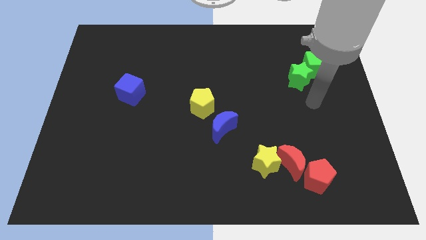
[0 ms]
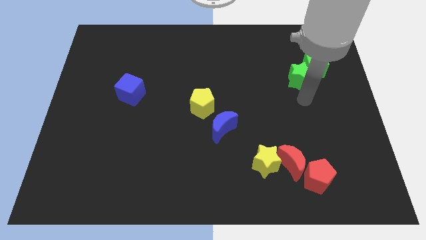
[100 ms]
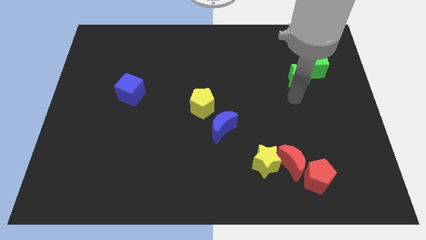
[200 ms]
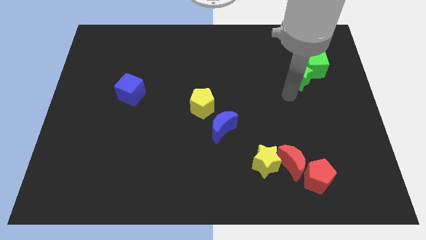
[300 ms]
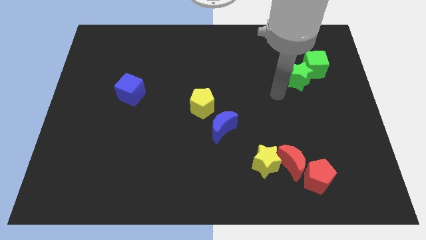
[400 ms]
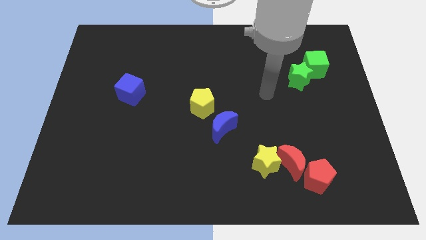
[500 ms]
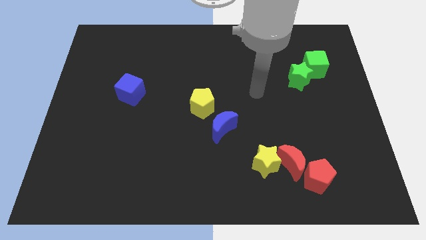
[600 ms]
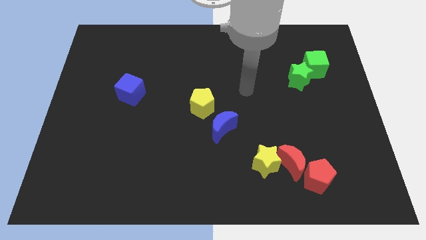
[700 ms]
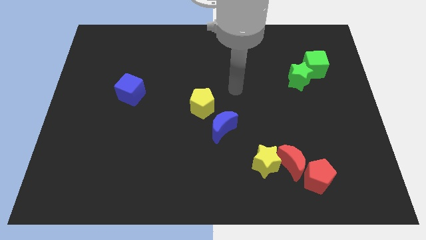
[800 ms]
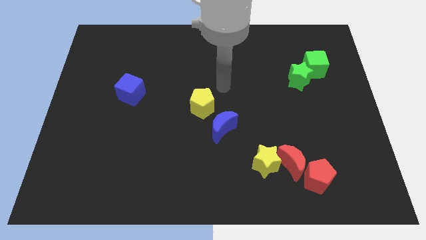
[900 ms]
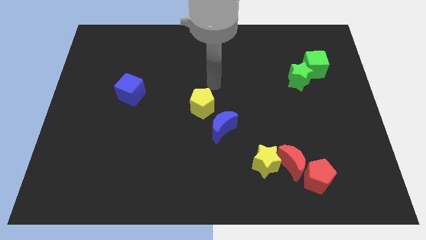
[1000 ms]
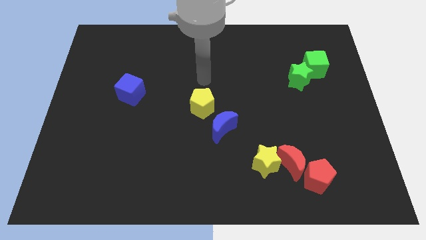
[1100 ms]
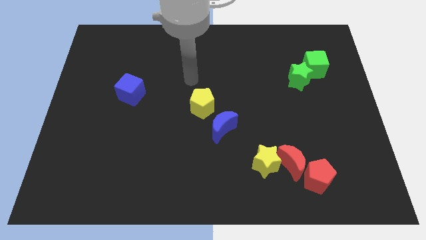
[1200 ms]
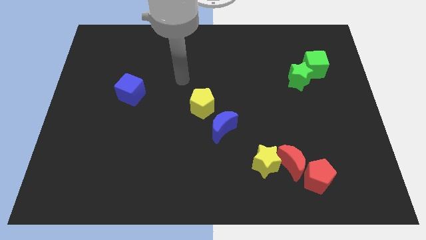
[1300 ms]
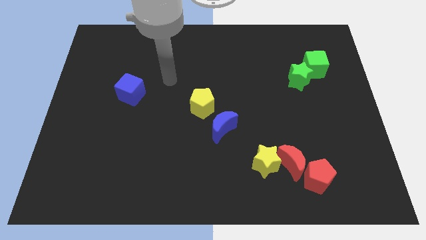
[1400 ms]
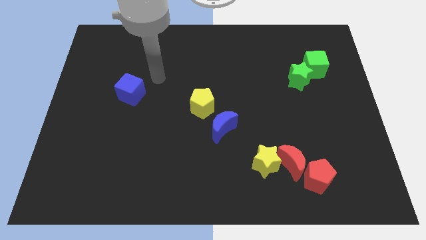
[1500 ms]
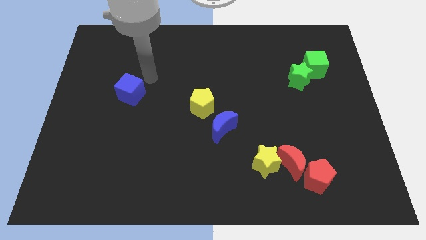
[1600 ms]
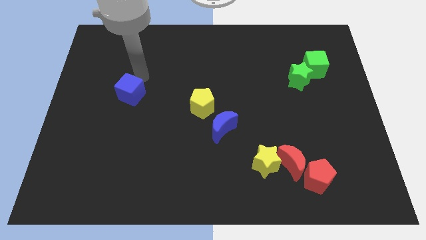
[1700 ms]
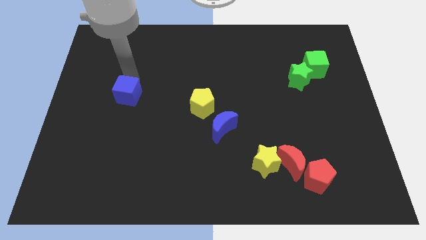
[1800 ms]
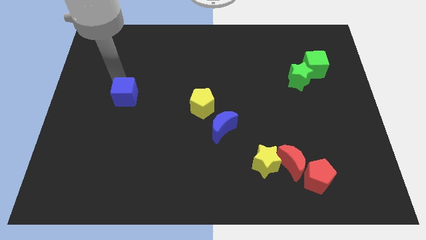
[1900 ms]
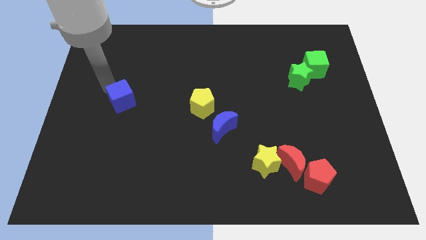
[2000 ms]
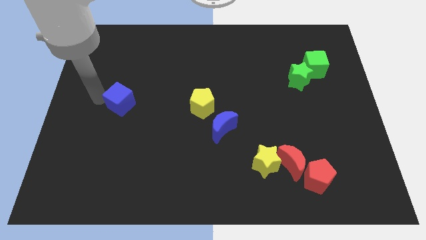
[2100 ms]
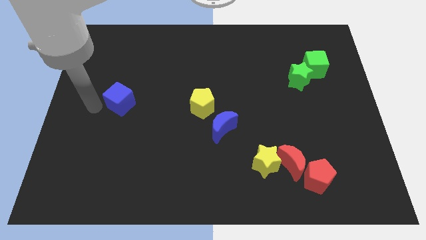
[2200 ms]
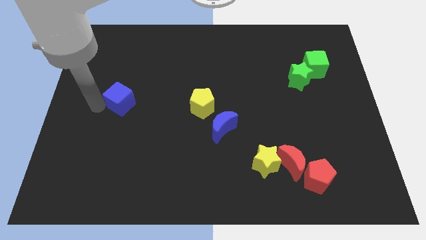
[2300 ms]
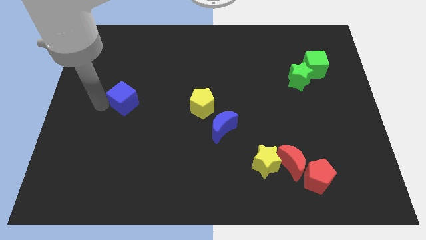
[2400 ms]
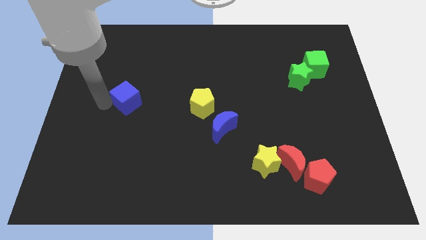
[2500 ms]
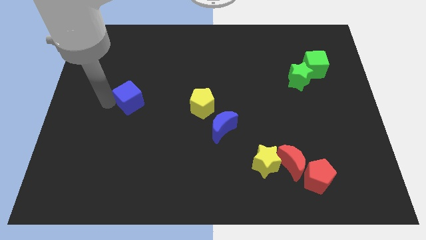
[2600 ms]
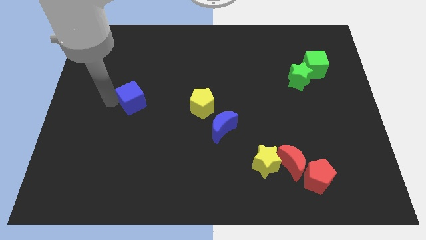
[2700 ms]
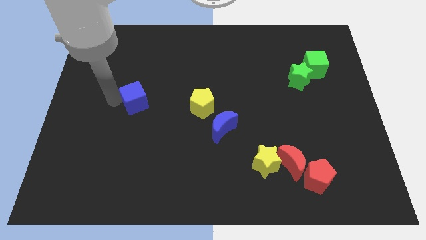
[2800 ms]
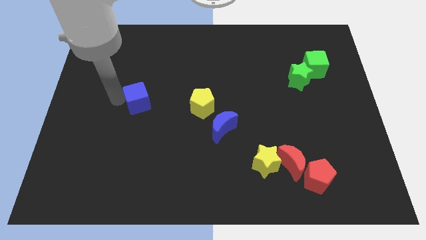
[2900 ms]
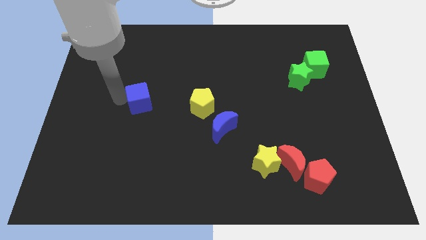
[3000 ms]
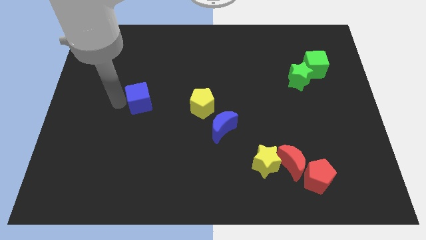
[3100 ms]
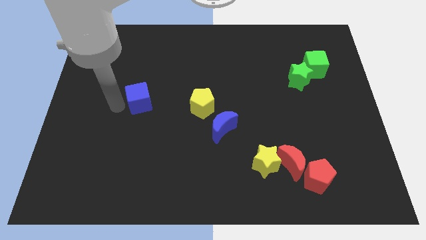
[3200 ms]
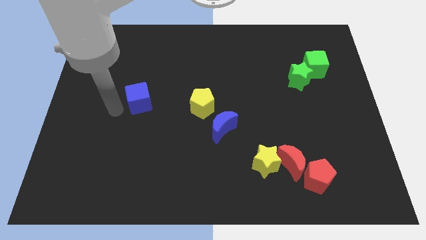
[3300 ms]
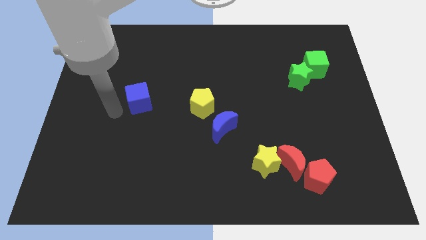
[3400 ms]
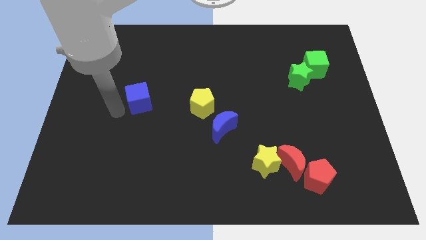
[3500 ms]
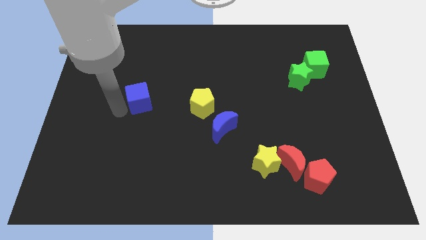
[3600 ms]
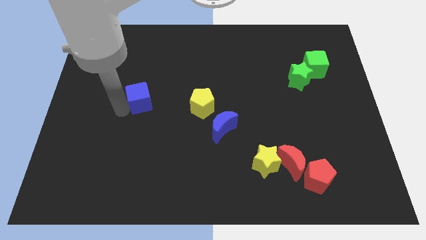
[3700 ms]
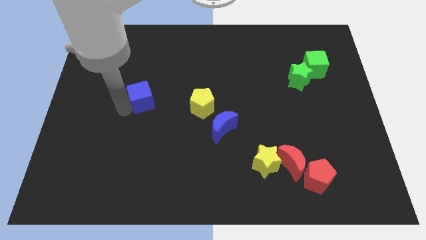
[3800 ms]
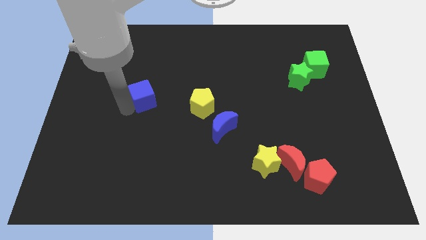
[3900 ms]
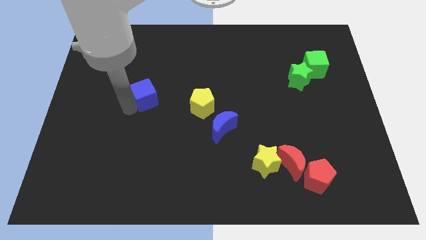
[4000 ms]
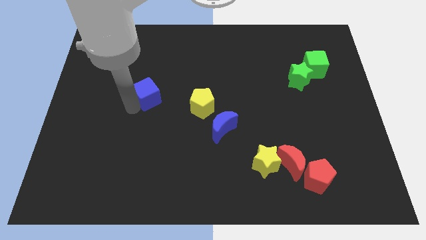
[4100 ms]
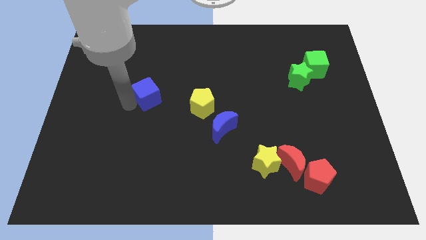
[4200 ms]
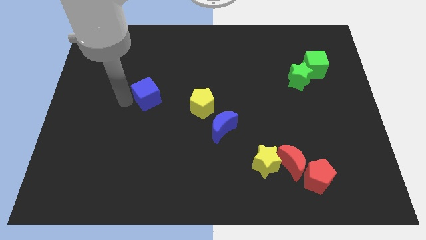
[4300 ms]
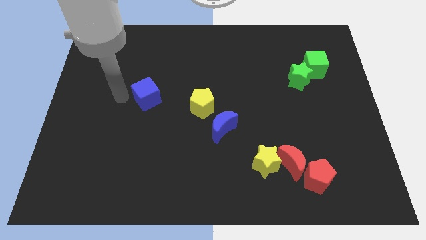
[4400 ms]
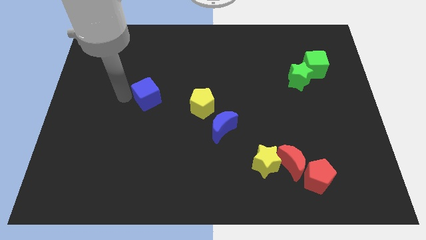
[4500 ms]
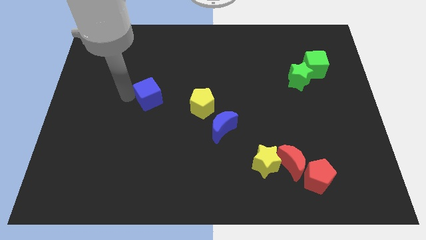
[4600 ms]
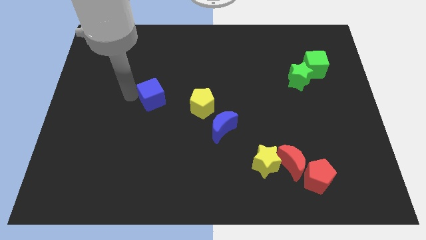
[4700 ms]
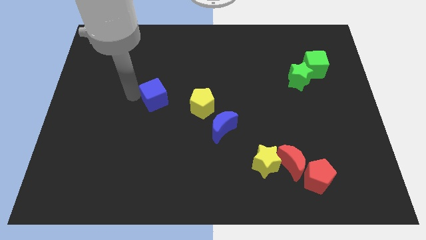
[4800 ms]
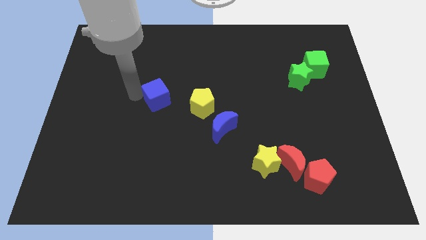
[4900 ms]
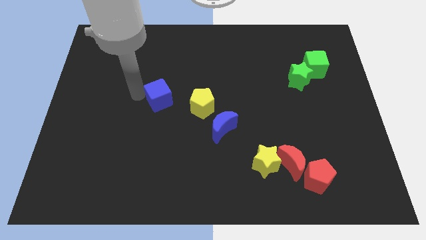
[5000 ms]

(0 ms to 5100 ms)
move the blue cube a little bit to the right

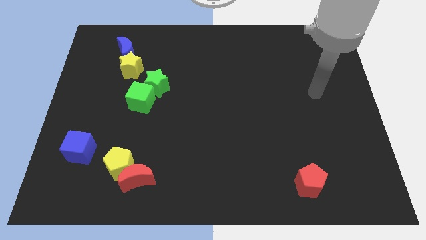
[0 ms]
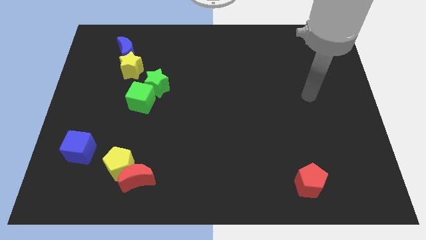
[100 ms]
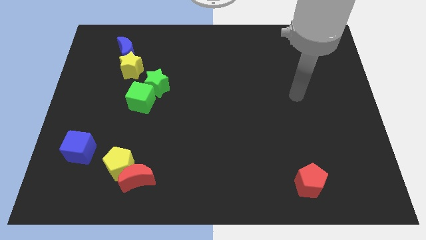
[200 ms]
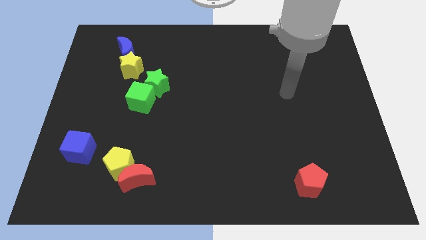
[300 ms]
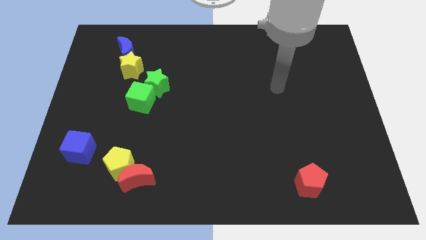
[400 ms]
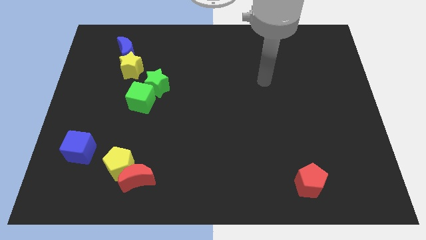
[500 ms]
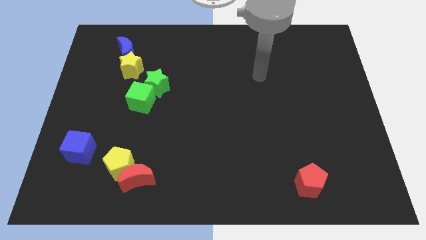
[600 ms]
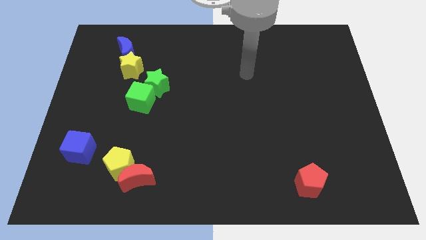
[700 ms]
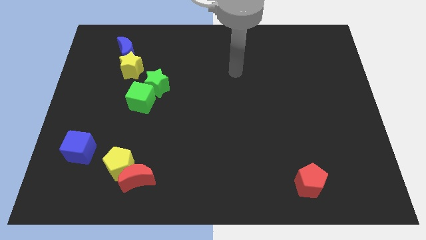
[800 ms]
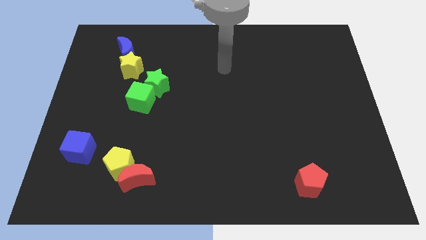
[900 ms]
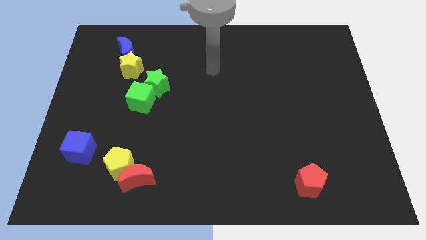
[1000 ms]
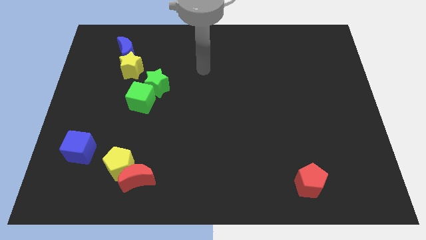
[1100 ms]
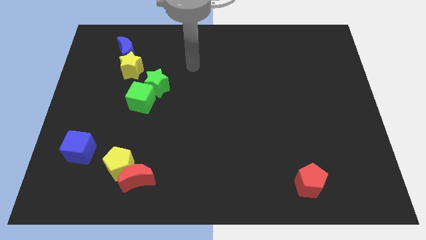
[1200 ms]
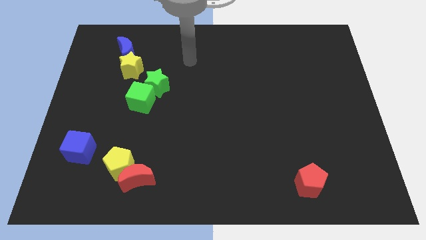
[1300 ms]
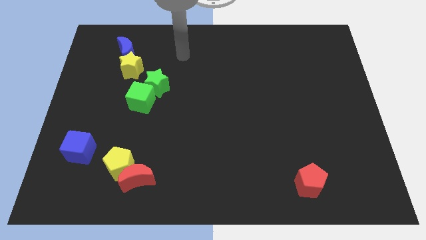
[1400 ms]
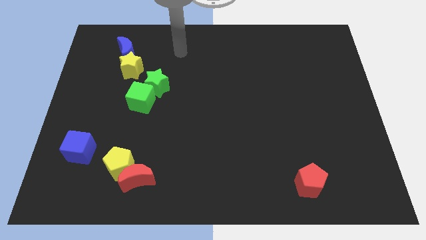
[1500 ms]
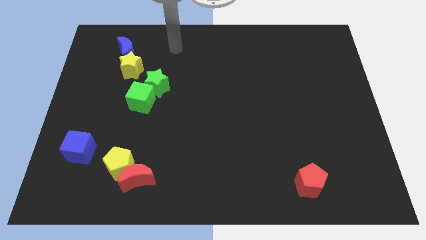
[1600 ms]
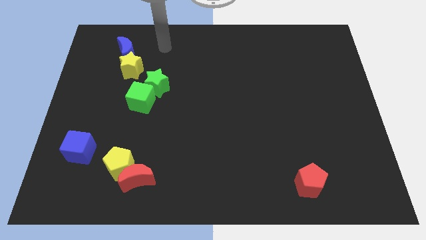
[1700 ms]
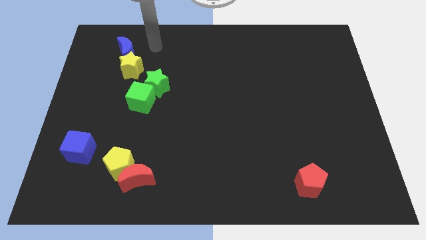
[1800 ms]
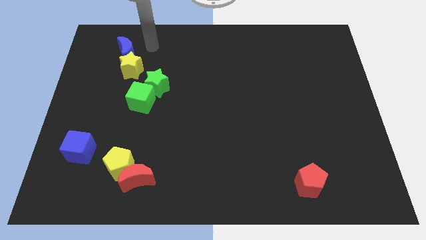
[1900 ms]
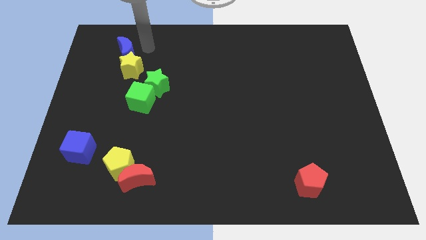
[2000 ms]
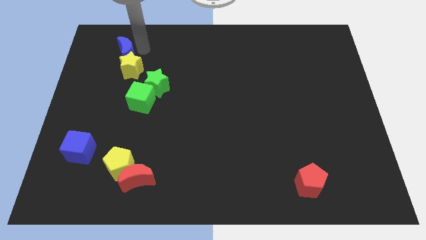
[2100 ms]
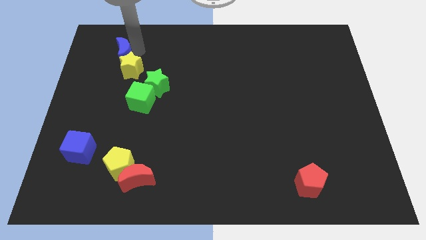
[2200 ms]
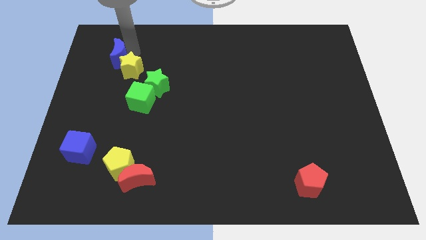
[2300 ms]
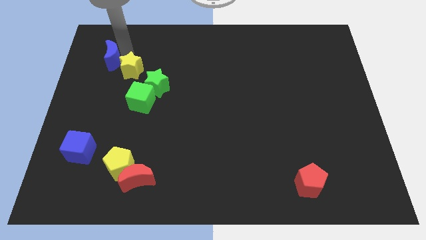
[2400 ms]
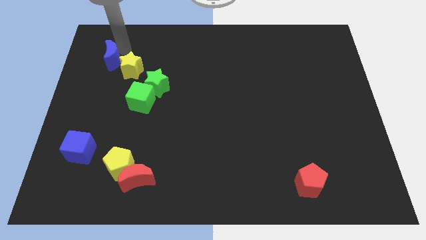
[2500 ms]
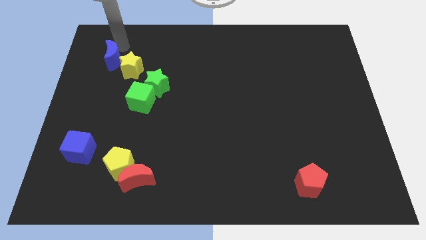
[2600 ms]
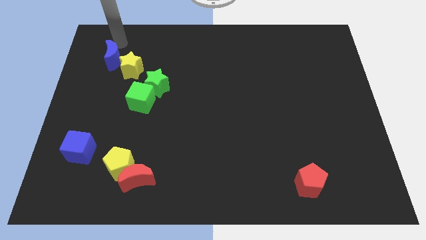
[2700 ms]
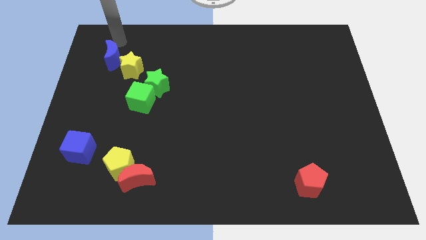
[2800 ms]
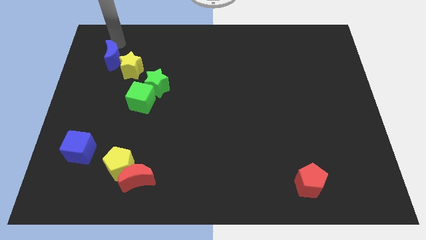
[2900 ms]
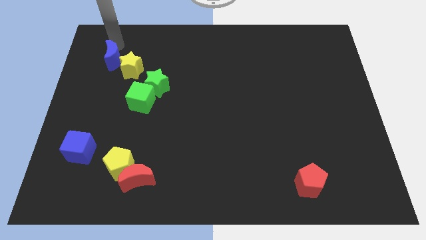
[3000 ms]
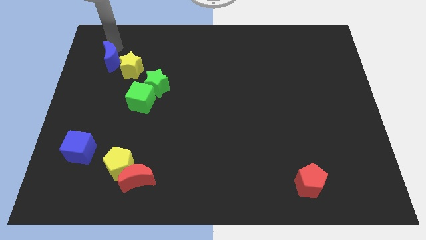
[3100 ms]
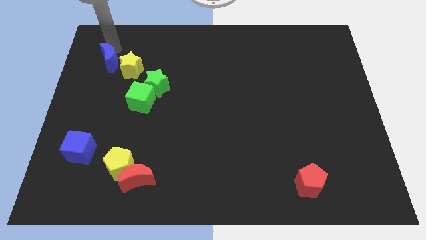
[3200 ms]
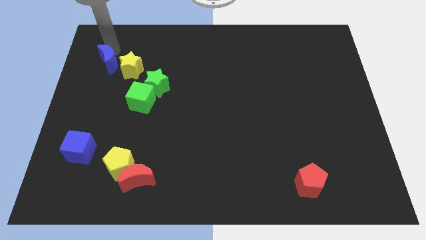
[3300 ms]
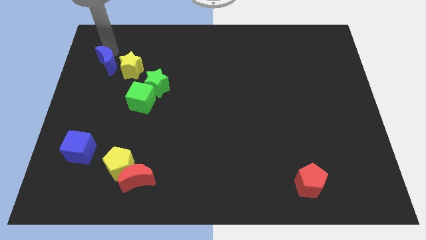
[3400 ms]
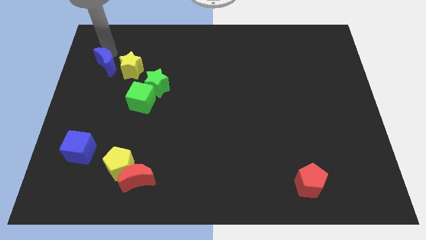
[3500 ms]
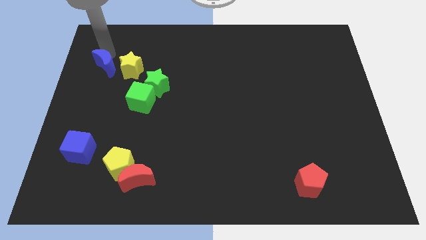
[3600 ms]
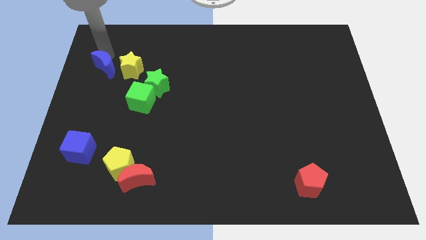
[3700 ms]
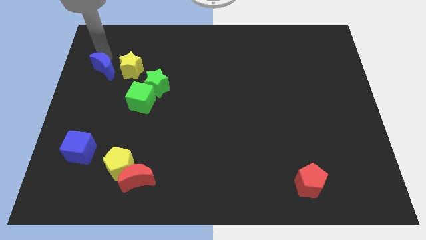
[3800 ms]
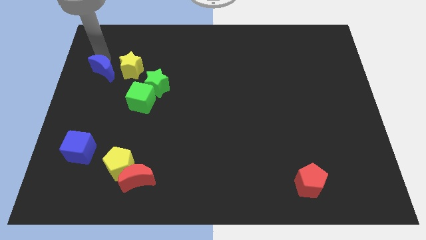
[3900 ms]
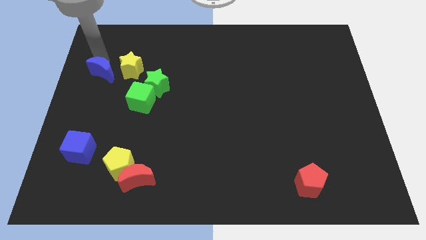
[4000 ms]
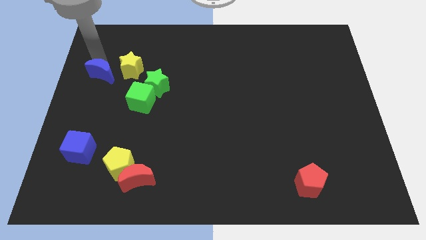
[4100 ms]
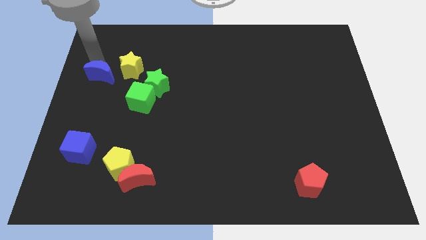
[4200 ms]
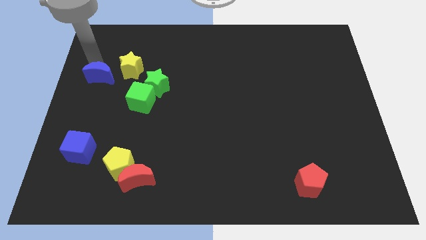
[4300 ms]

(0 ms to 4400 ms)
slide the blue moon a little bit downwards
